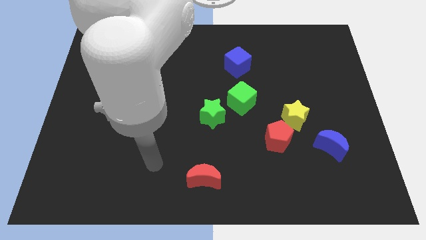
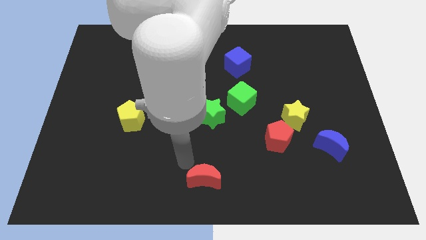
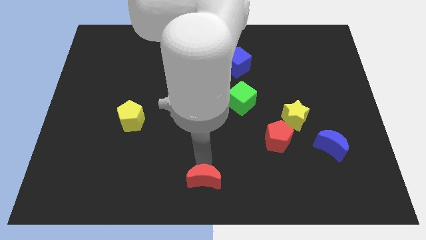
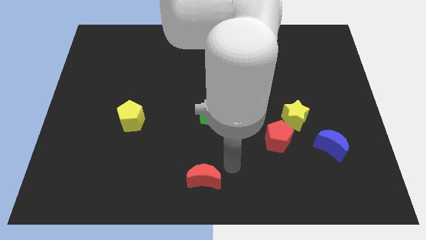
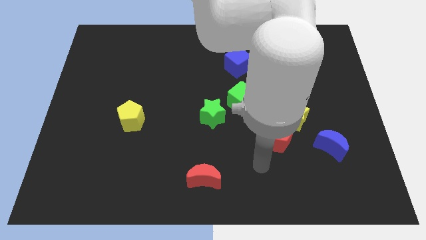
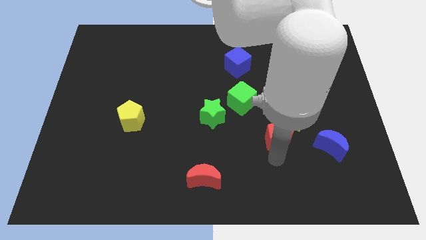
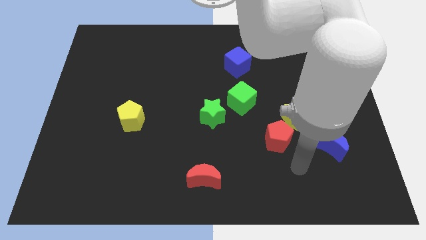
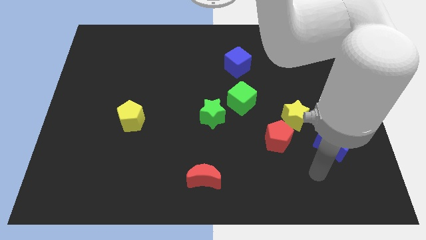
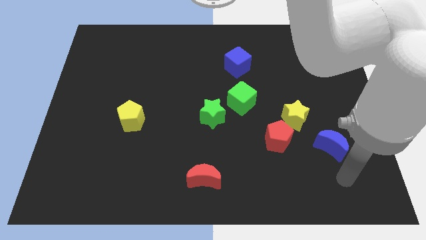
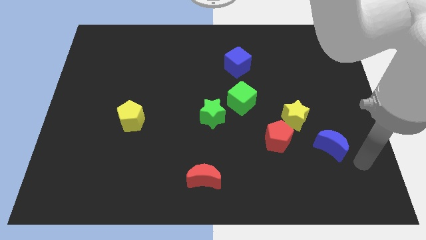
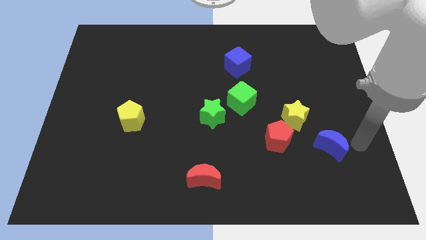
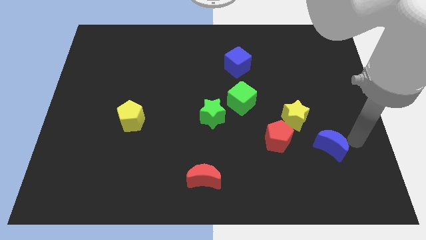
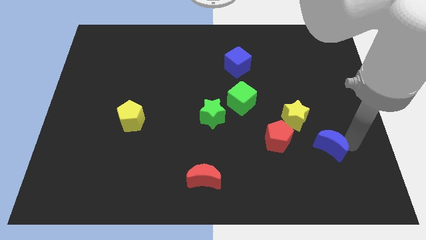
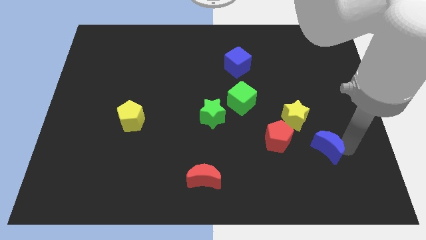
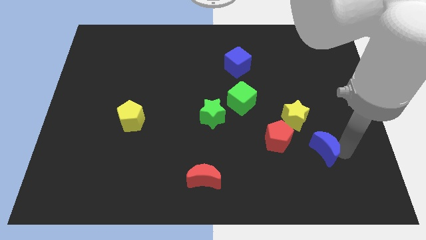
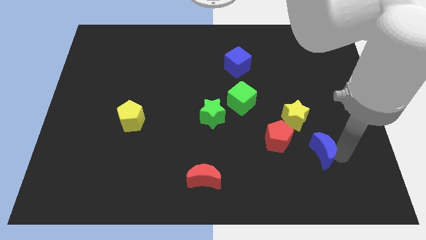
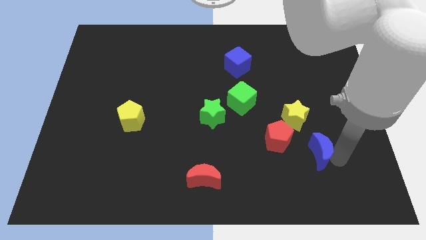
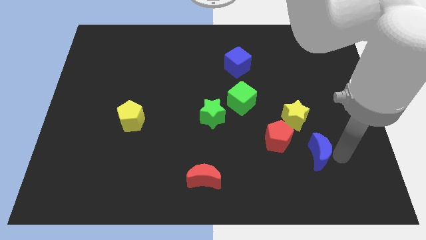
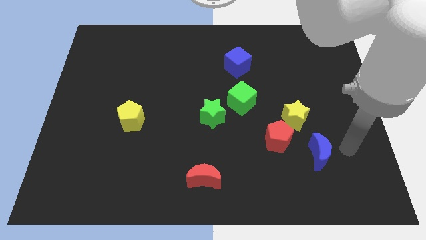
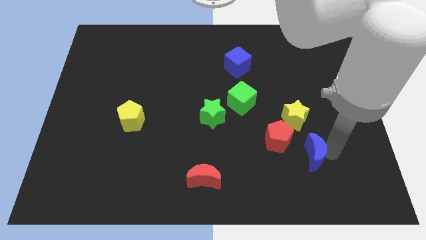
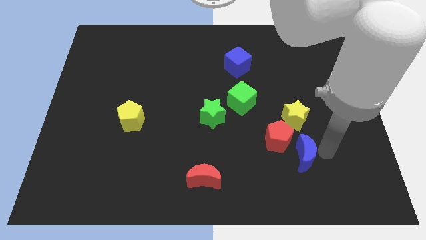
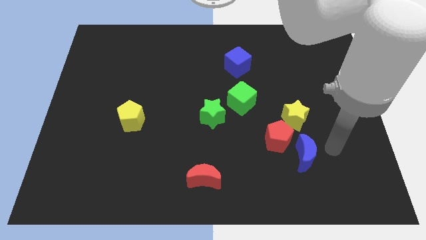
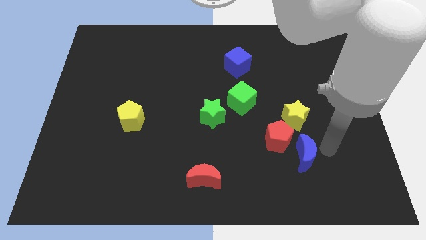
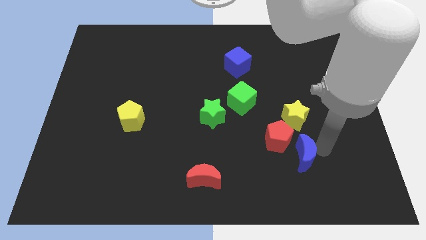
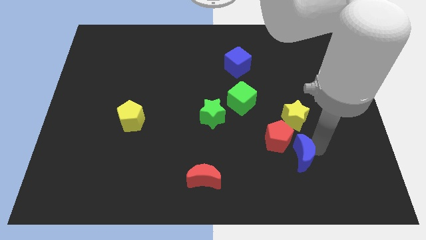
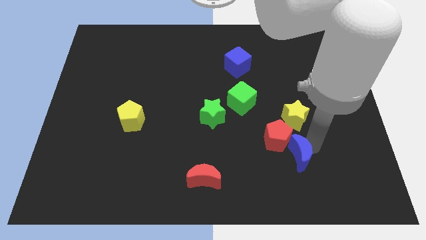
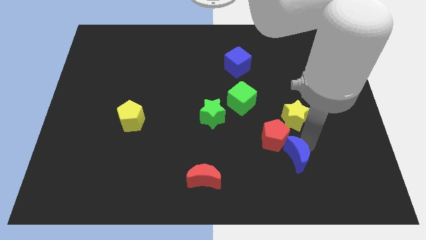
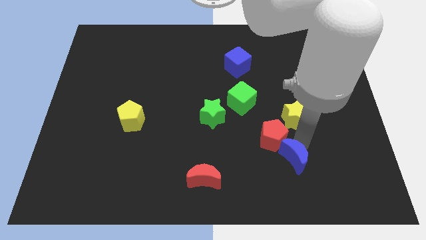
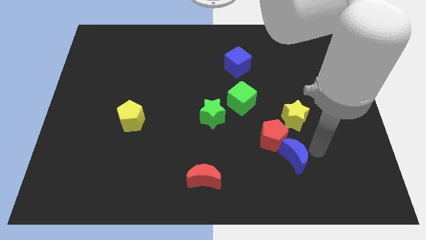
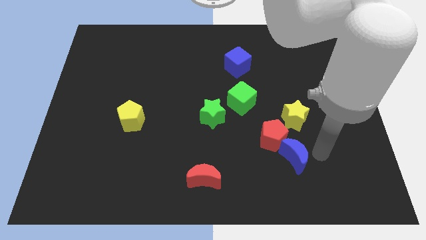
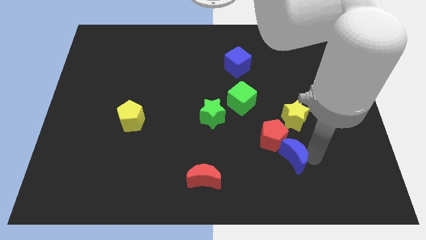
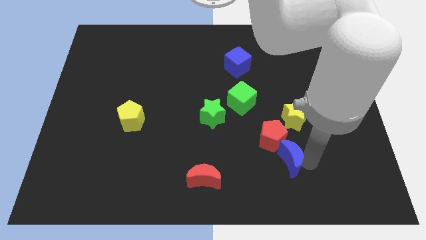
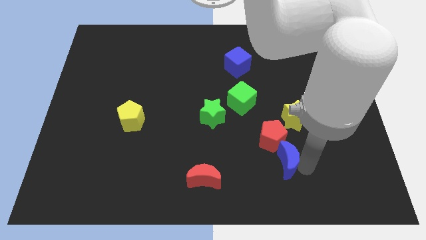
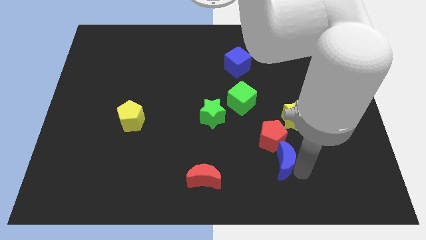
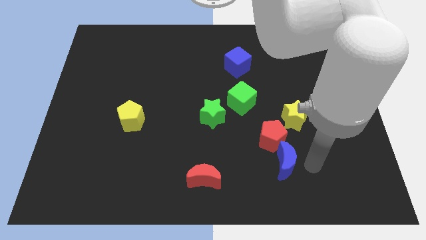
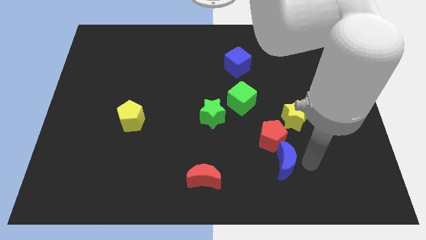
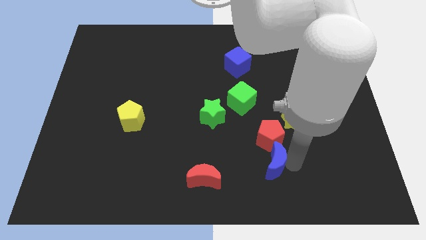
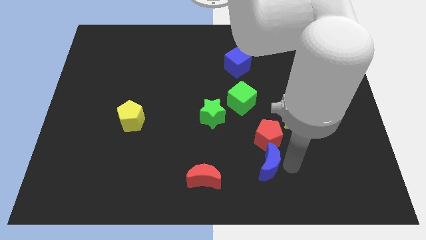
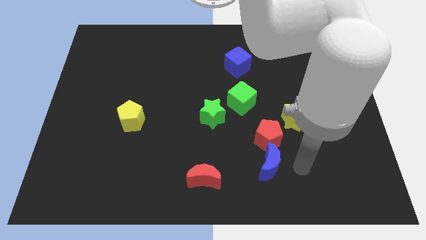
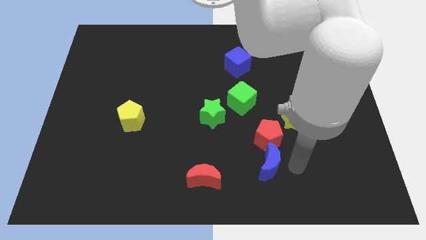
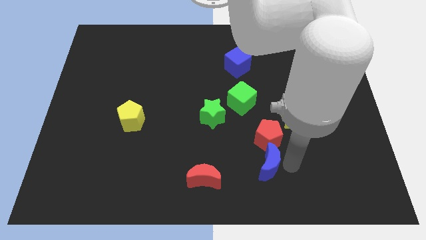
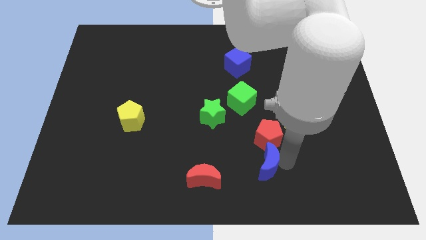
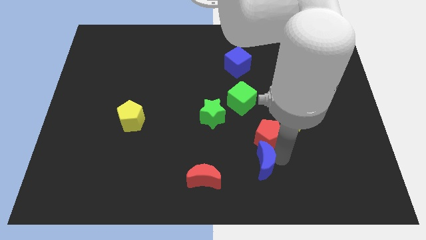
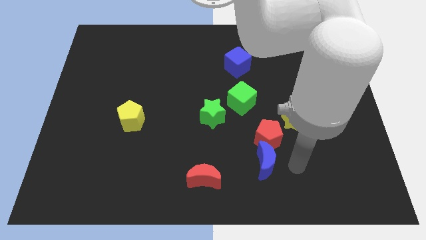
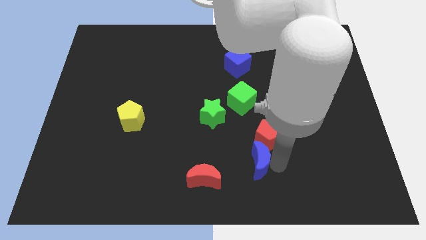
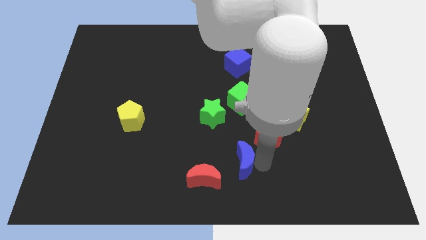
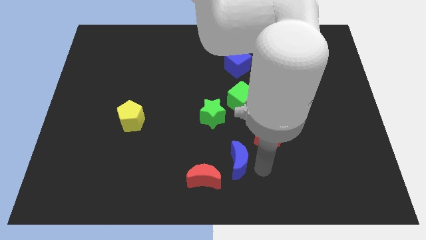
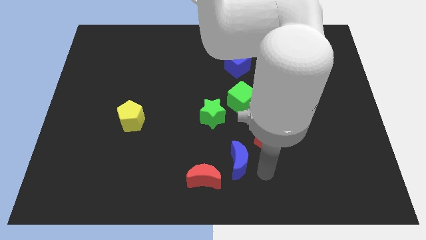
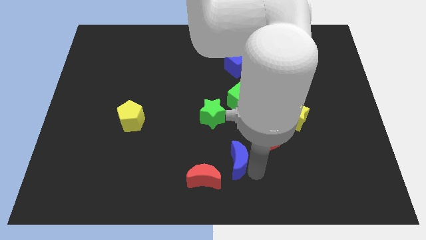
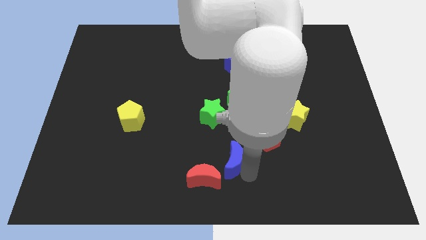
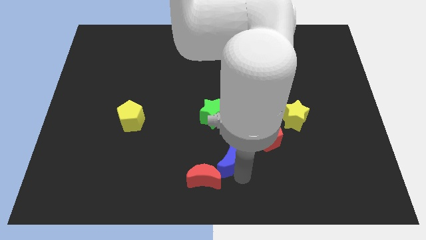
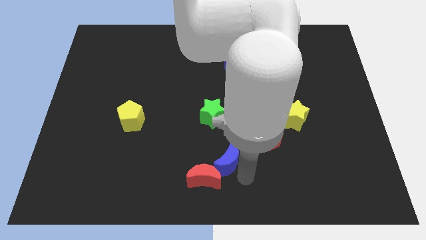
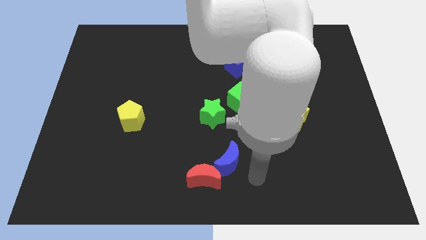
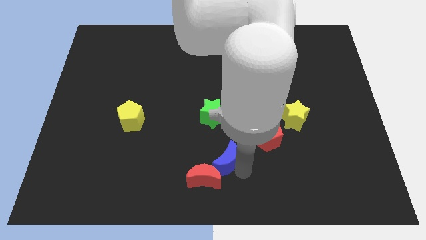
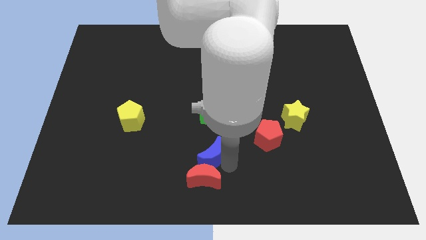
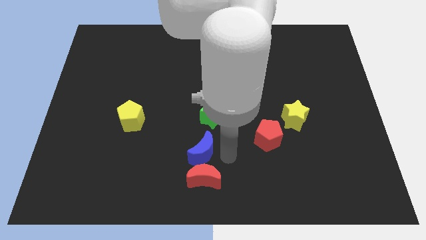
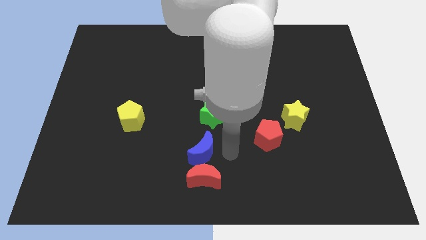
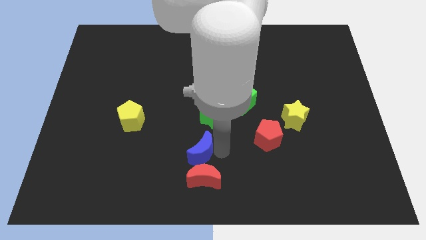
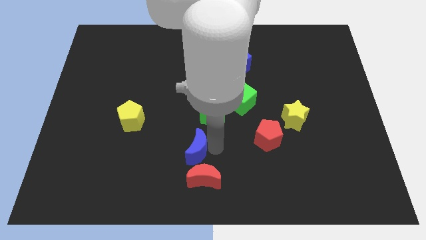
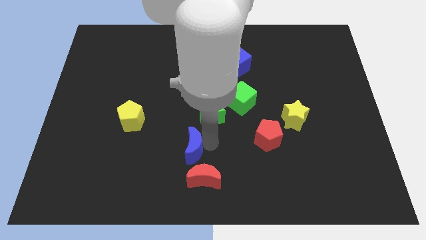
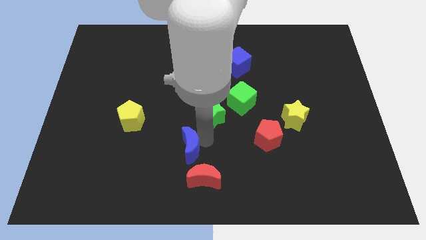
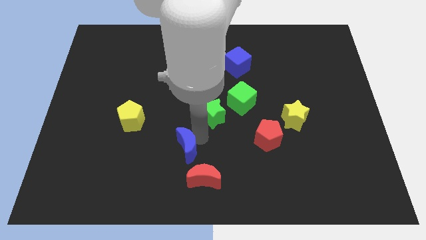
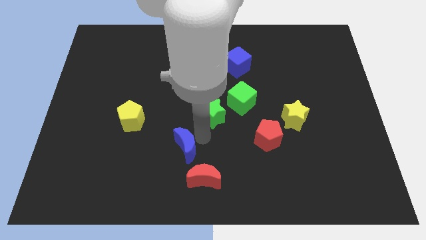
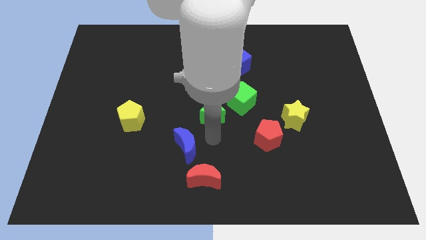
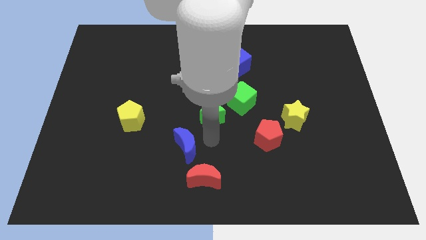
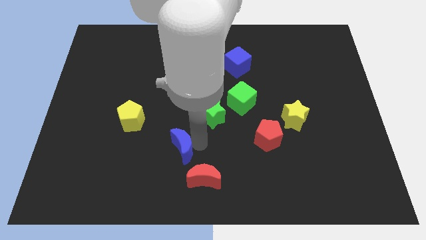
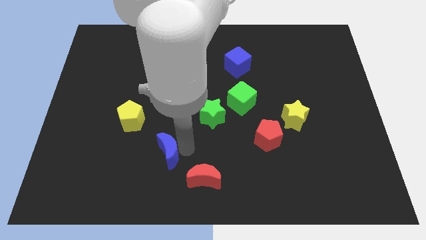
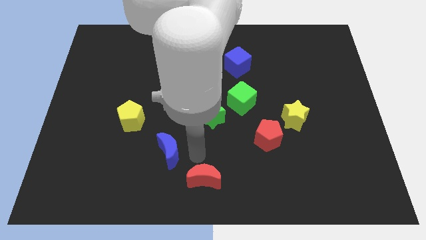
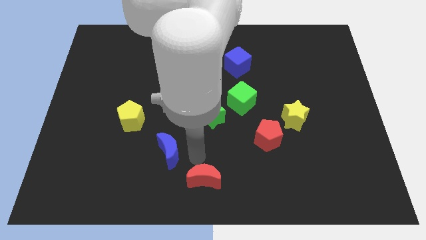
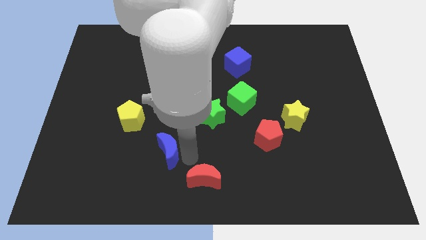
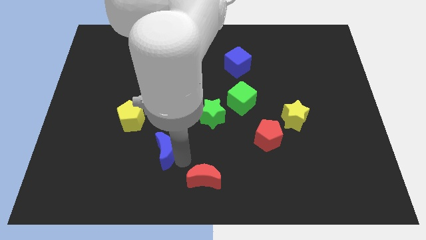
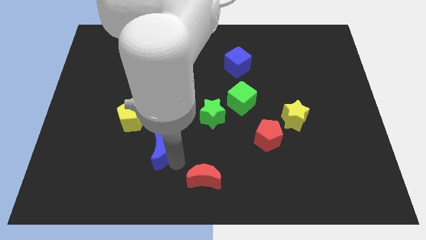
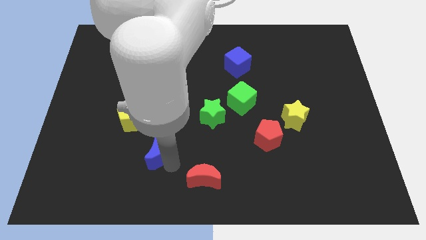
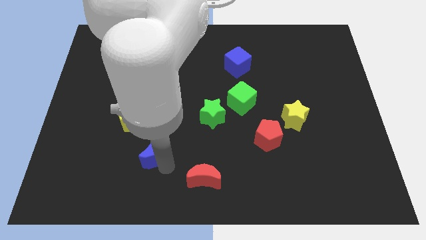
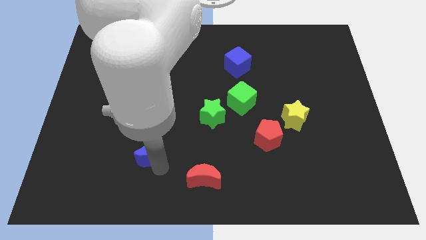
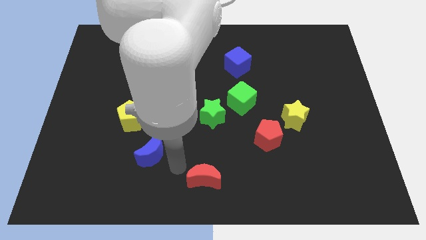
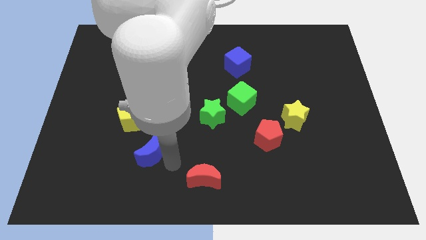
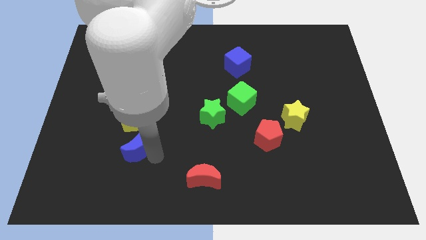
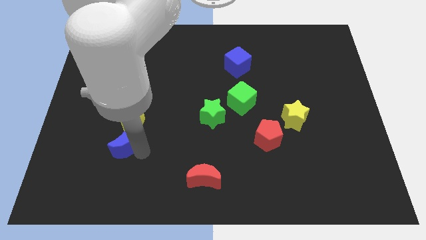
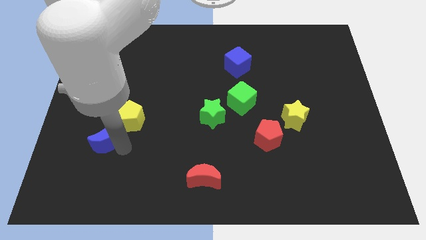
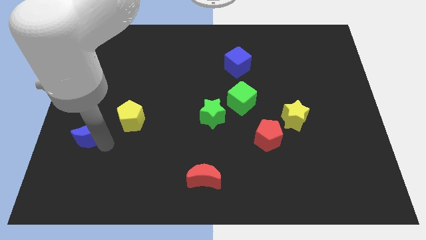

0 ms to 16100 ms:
push the blue moon just left of the yellow pentagon
